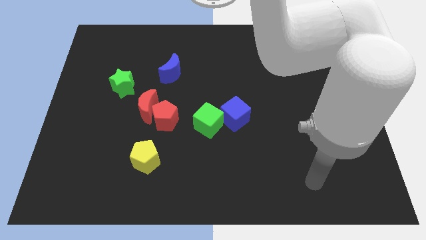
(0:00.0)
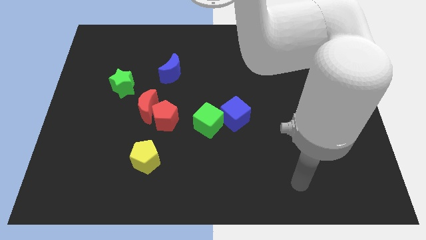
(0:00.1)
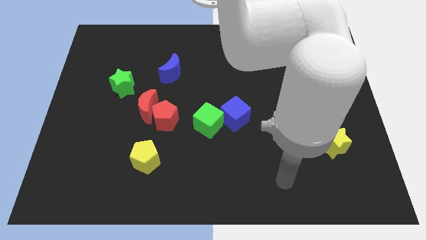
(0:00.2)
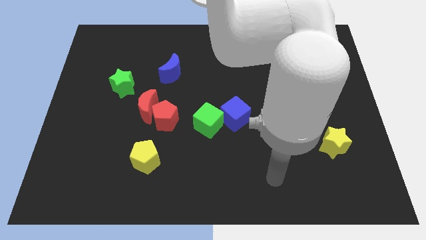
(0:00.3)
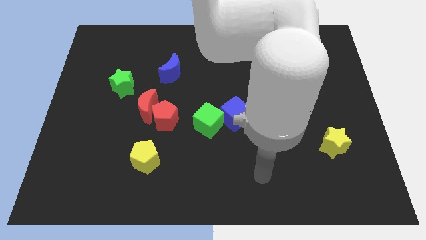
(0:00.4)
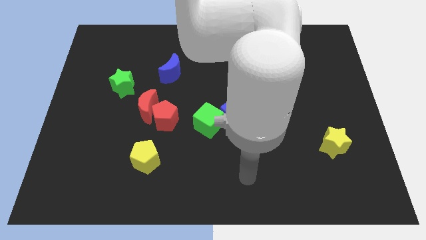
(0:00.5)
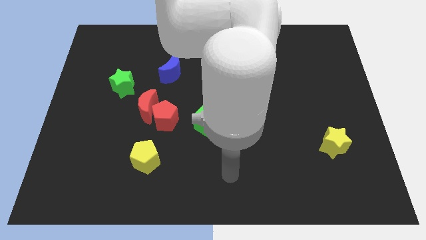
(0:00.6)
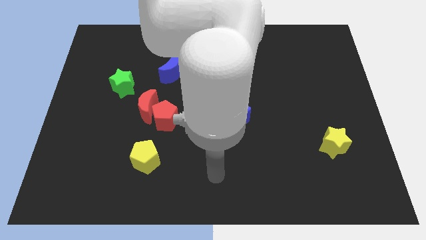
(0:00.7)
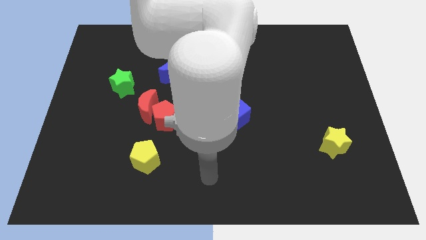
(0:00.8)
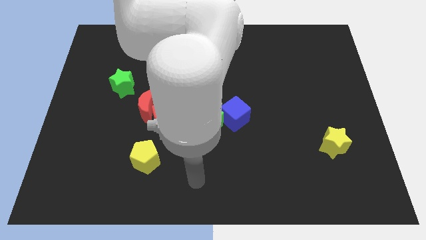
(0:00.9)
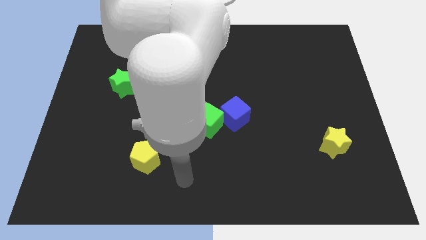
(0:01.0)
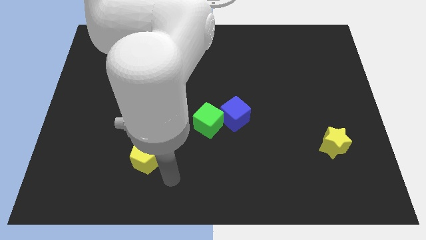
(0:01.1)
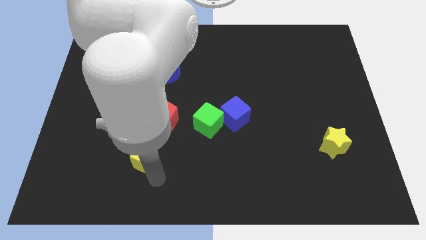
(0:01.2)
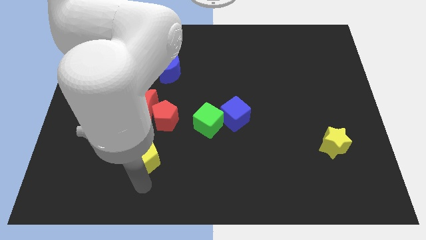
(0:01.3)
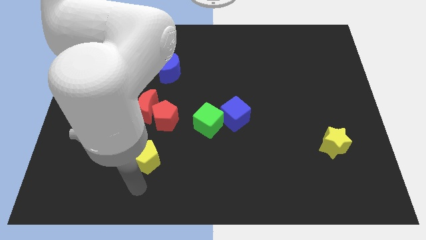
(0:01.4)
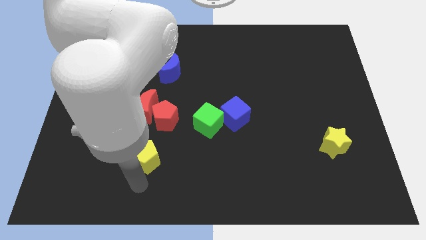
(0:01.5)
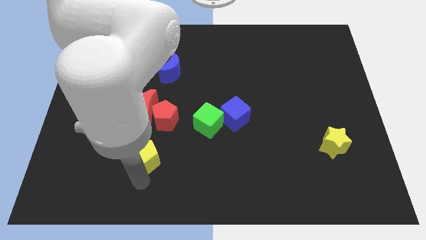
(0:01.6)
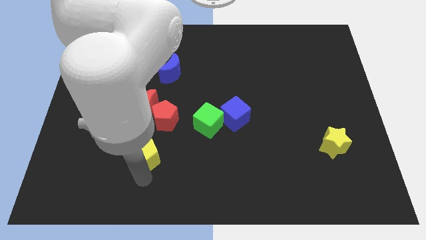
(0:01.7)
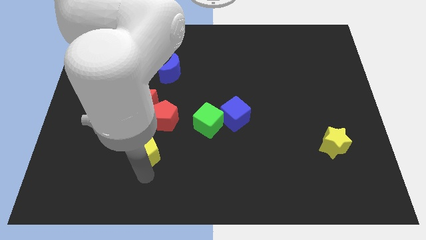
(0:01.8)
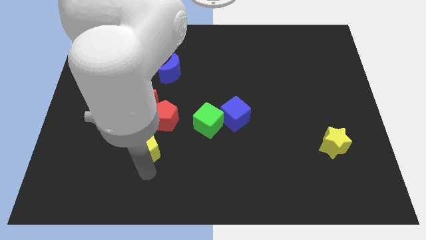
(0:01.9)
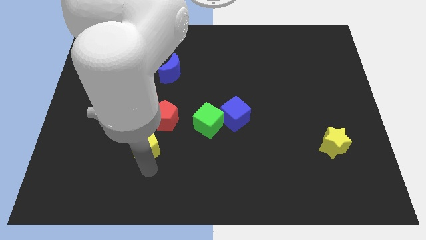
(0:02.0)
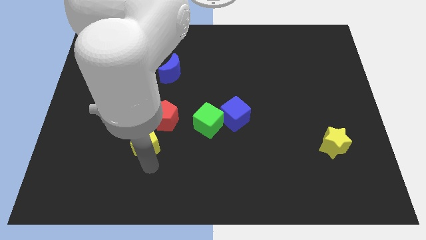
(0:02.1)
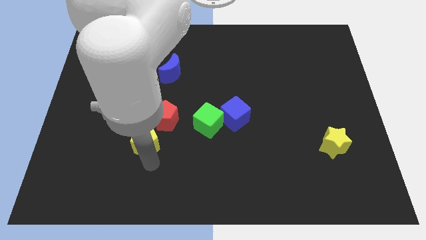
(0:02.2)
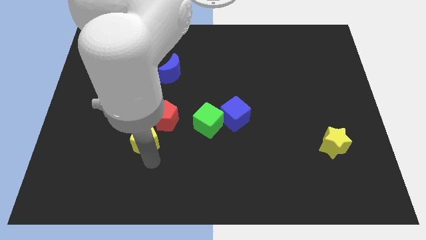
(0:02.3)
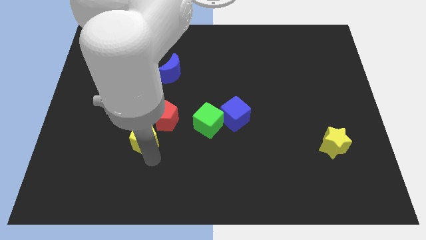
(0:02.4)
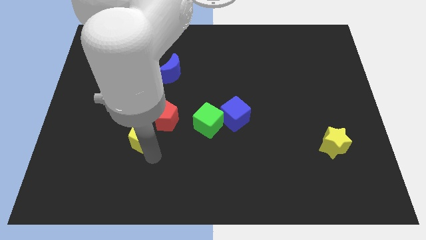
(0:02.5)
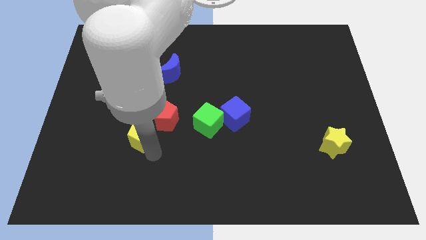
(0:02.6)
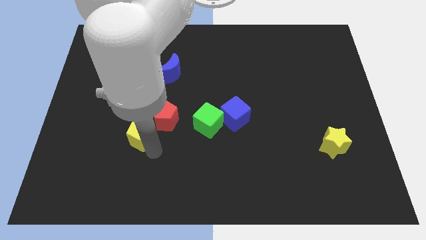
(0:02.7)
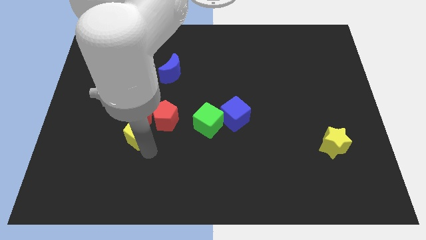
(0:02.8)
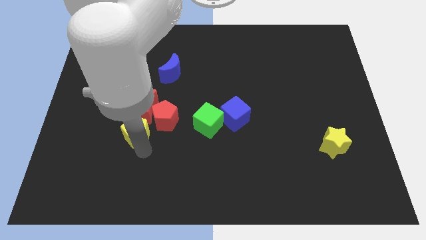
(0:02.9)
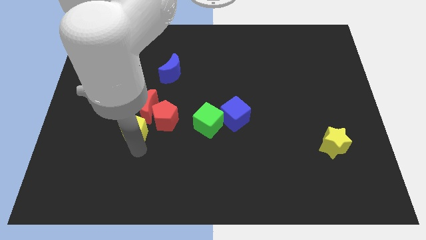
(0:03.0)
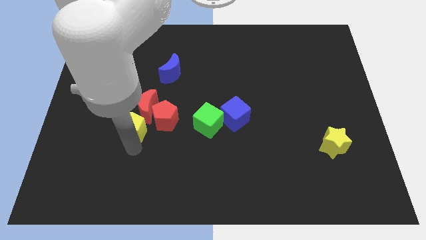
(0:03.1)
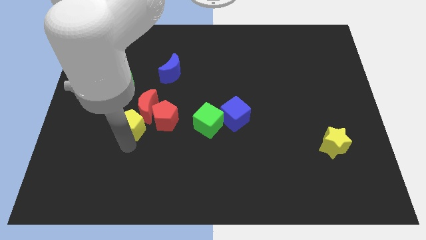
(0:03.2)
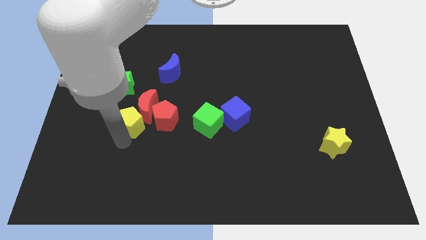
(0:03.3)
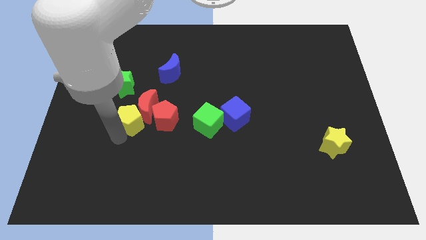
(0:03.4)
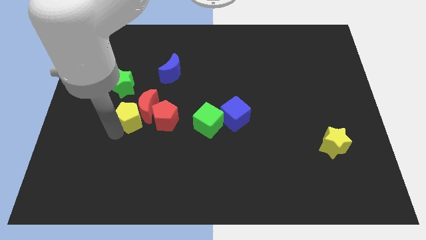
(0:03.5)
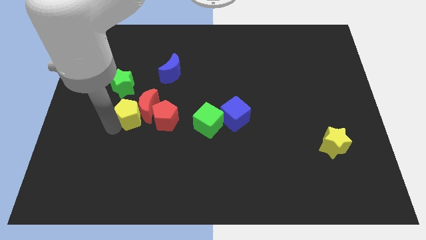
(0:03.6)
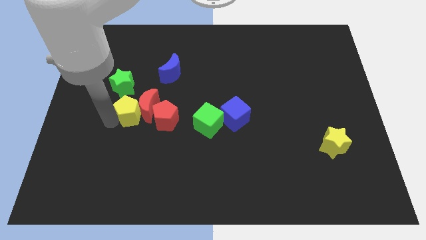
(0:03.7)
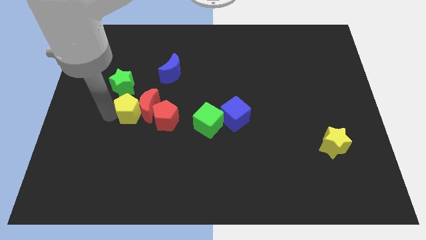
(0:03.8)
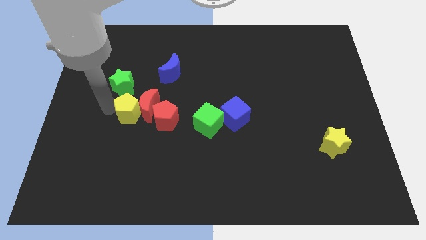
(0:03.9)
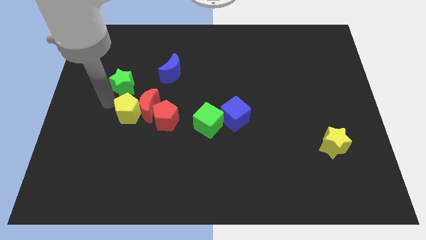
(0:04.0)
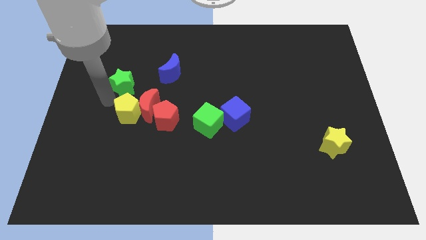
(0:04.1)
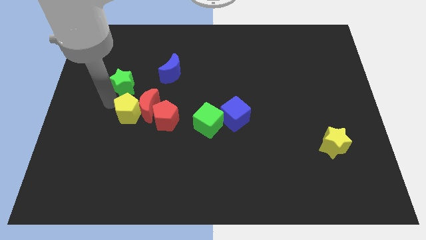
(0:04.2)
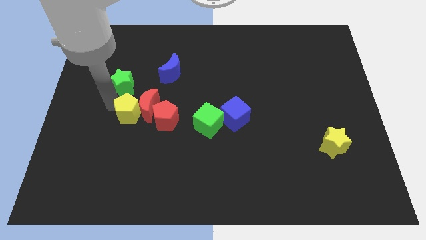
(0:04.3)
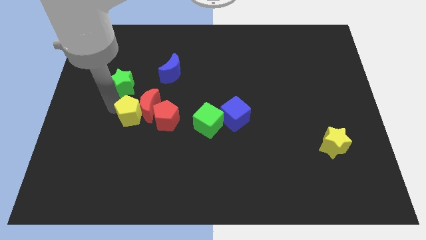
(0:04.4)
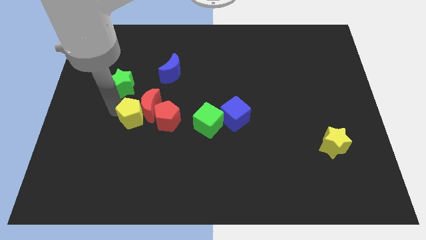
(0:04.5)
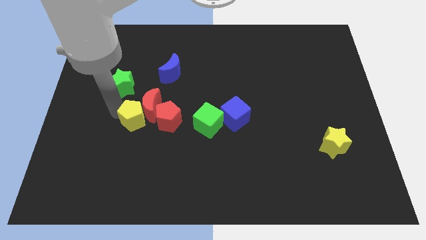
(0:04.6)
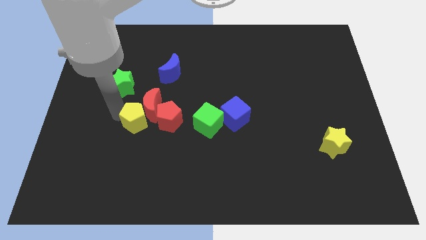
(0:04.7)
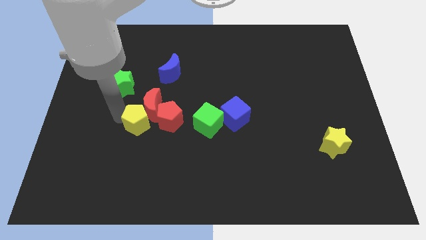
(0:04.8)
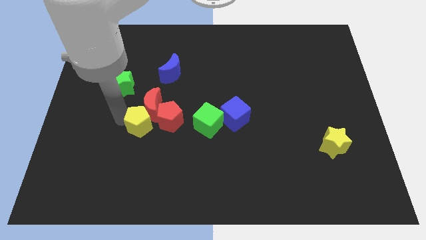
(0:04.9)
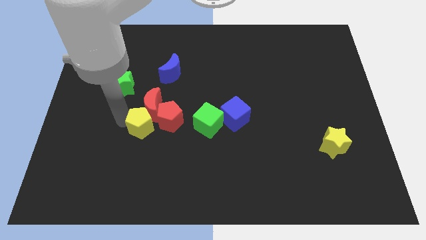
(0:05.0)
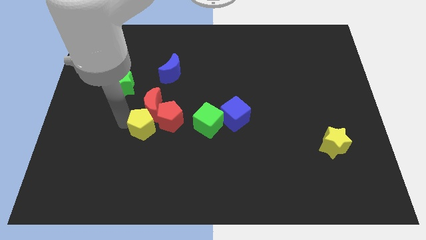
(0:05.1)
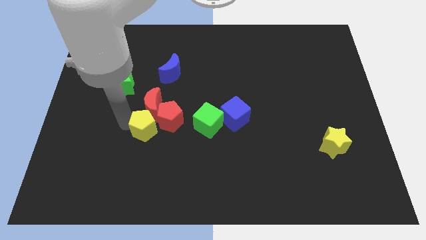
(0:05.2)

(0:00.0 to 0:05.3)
slide the yellow pentagon to the red pentagon

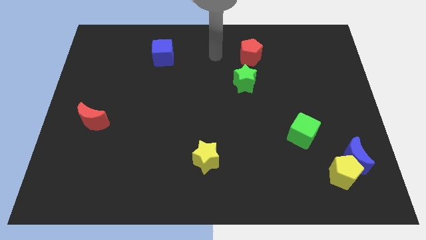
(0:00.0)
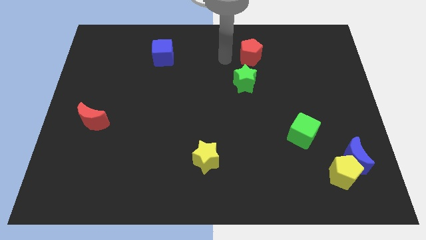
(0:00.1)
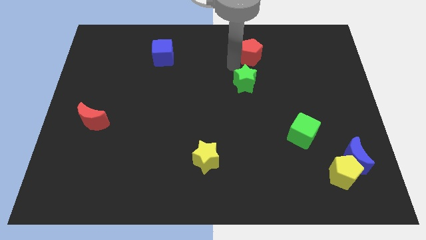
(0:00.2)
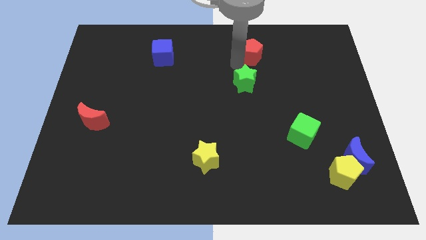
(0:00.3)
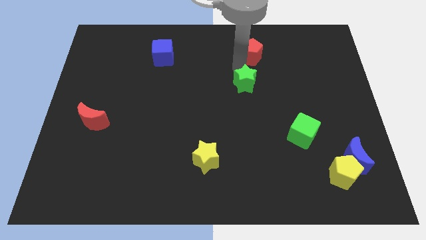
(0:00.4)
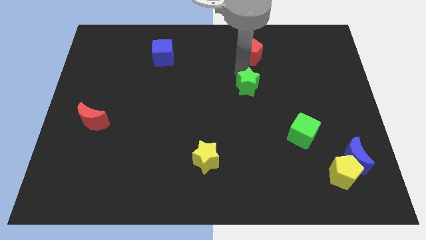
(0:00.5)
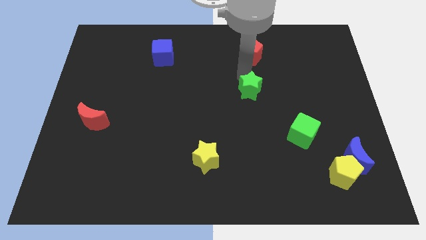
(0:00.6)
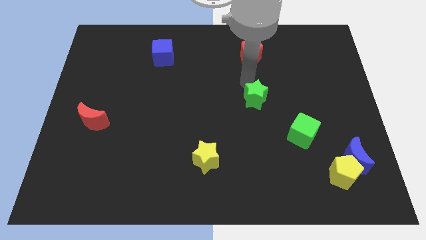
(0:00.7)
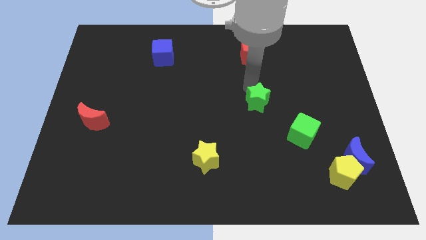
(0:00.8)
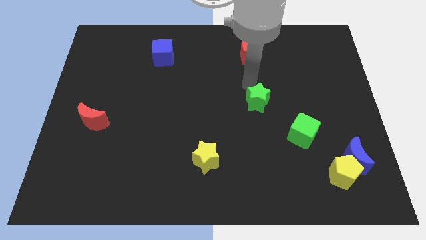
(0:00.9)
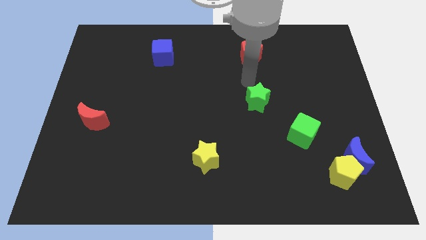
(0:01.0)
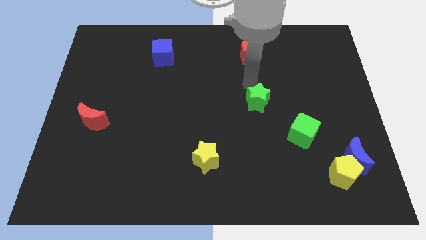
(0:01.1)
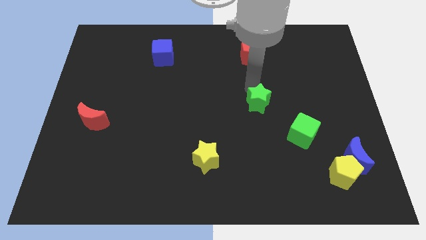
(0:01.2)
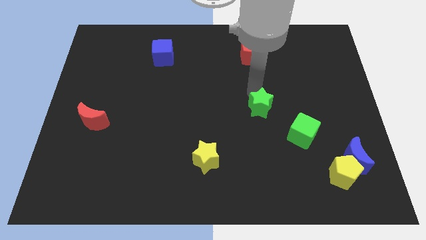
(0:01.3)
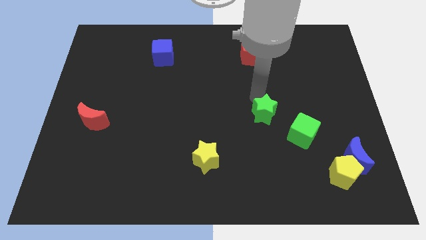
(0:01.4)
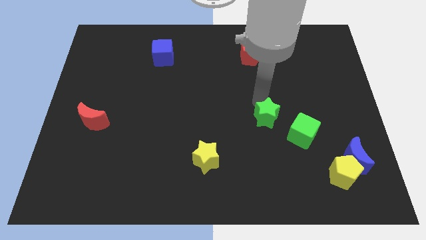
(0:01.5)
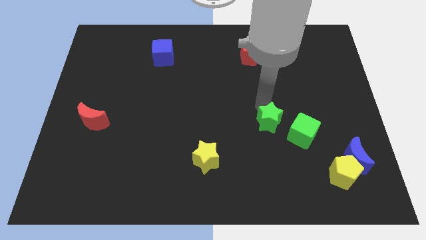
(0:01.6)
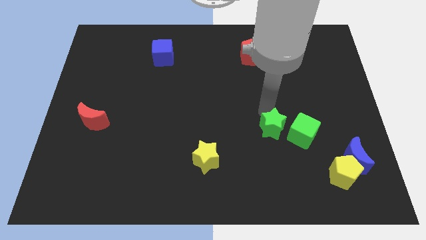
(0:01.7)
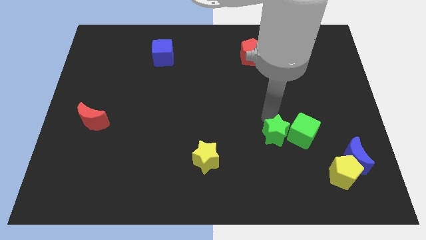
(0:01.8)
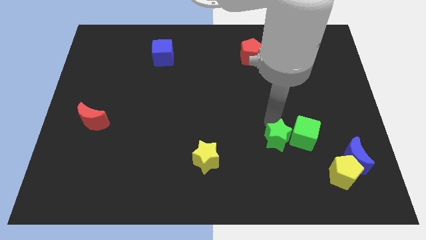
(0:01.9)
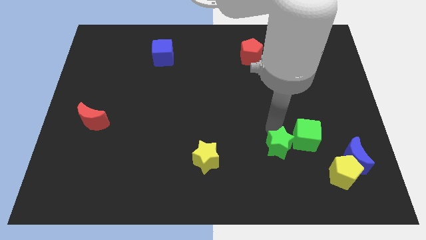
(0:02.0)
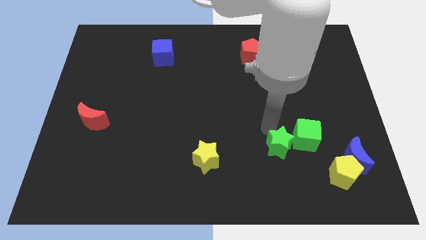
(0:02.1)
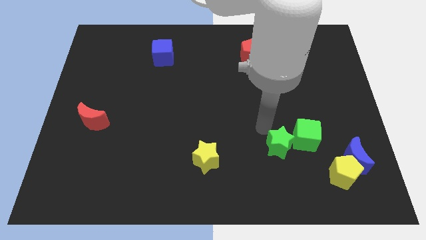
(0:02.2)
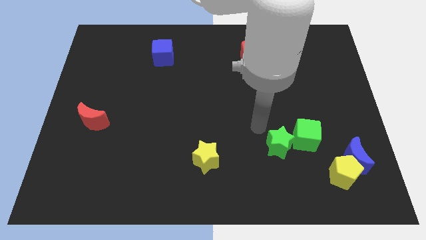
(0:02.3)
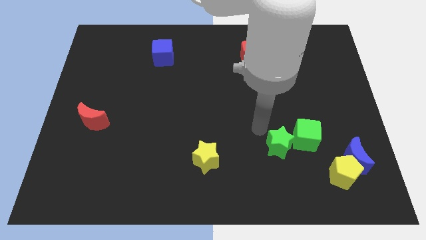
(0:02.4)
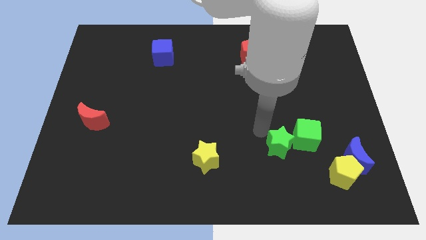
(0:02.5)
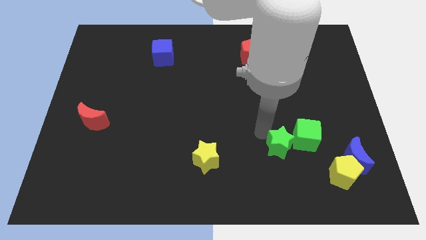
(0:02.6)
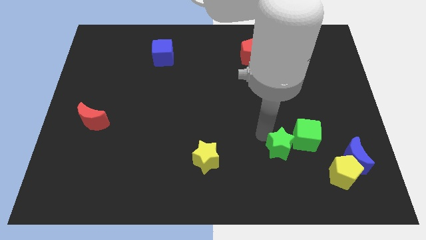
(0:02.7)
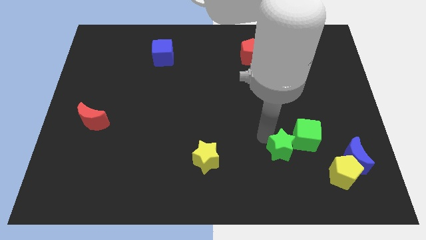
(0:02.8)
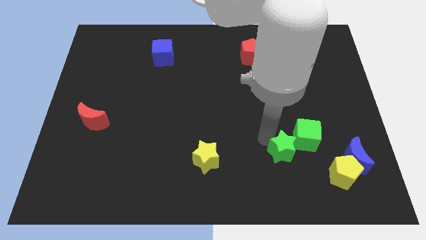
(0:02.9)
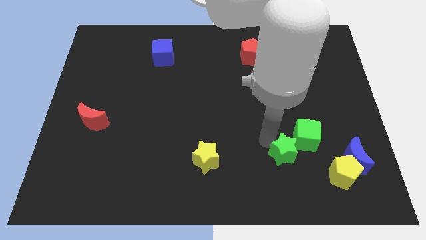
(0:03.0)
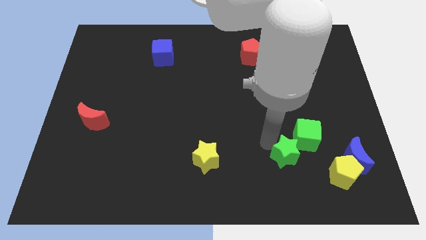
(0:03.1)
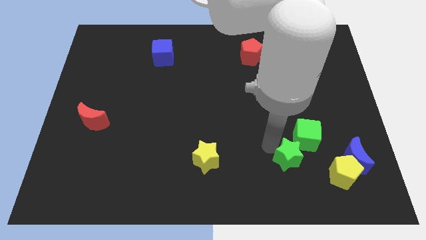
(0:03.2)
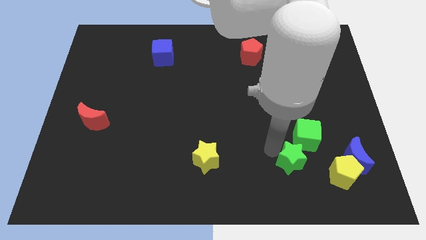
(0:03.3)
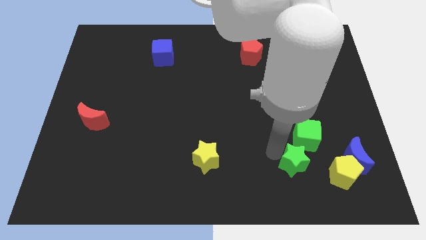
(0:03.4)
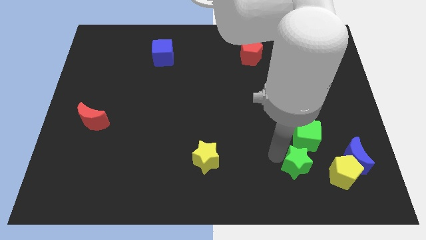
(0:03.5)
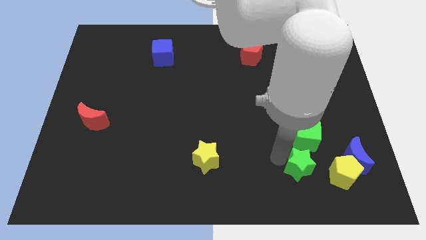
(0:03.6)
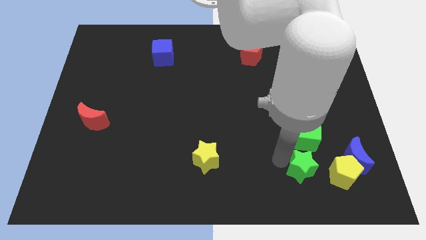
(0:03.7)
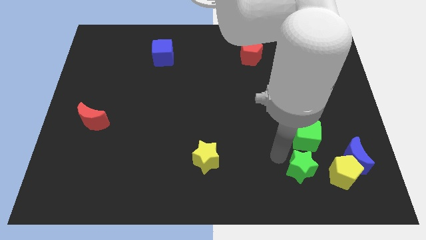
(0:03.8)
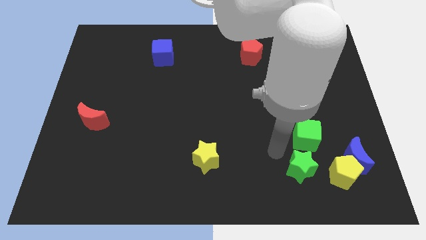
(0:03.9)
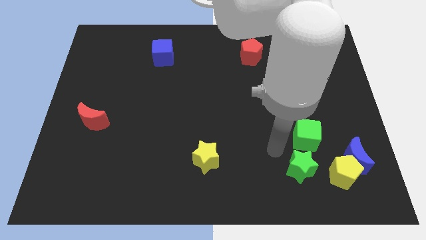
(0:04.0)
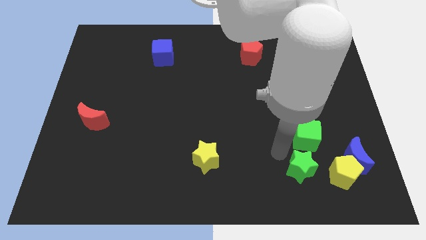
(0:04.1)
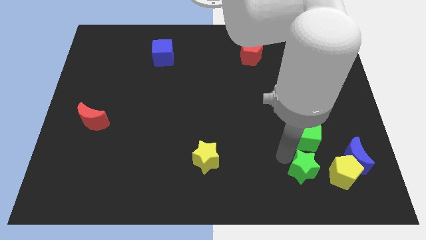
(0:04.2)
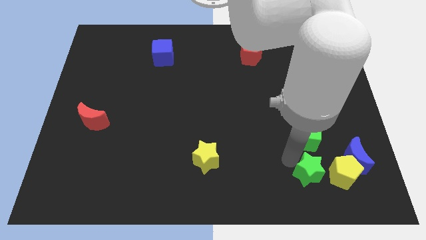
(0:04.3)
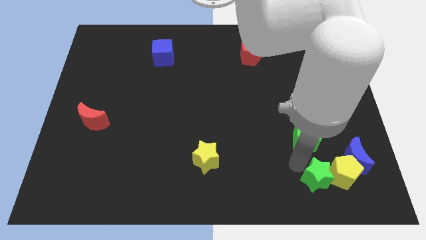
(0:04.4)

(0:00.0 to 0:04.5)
push the green star next to the yellow pentagon
